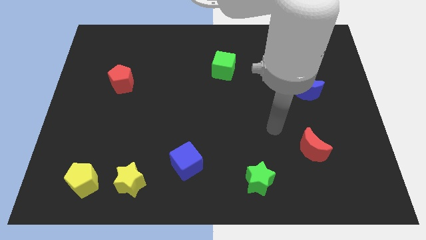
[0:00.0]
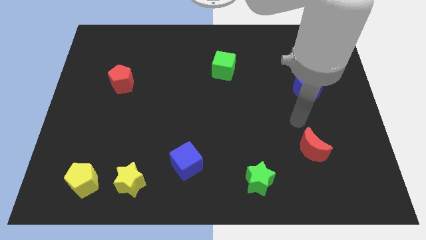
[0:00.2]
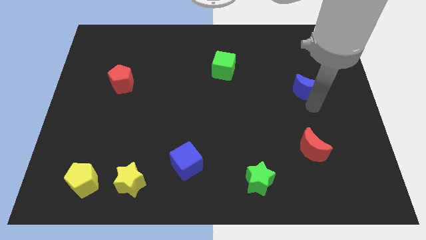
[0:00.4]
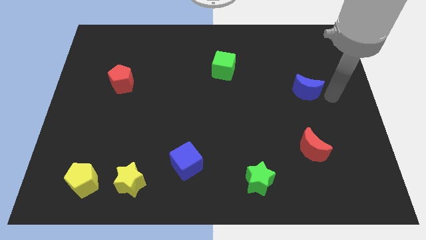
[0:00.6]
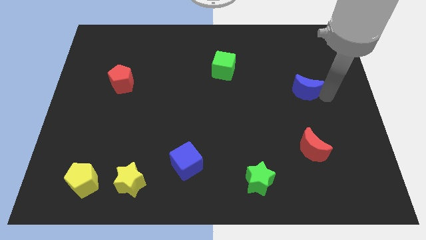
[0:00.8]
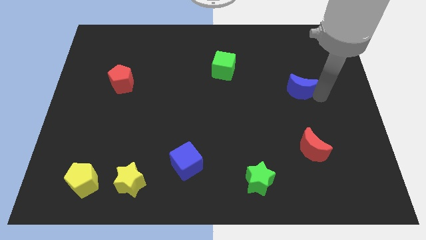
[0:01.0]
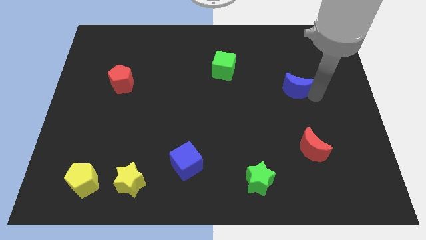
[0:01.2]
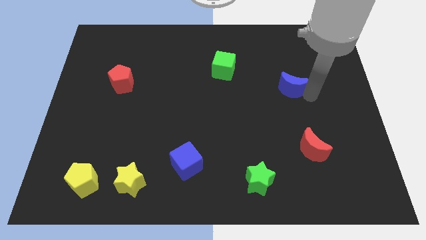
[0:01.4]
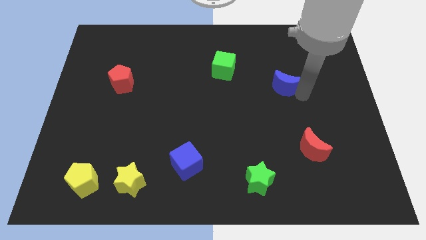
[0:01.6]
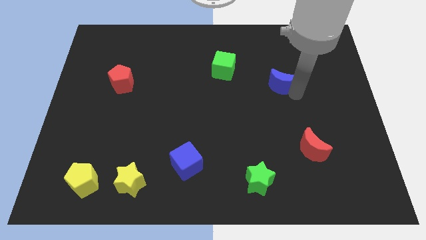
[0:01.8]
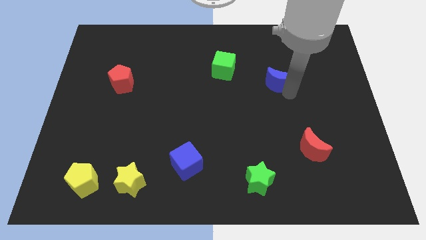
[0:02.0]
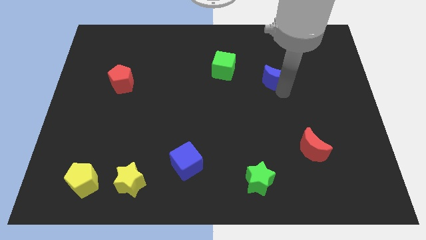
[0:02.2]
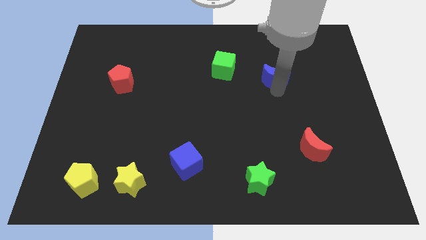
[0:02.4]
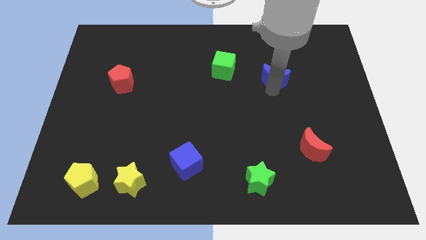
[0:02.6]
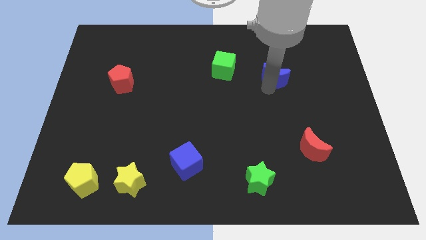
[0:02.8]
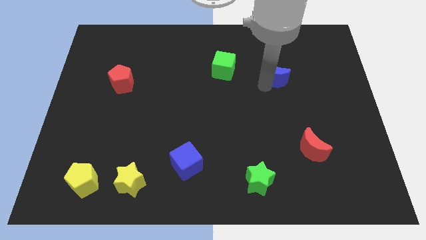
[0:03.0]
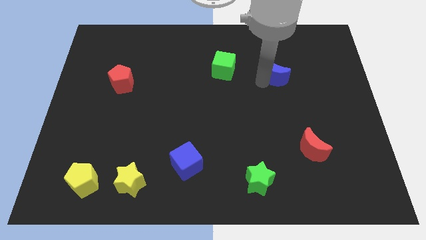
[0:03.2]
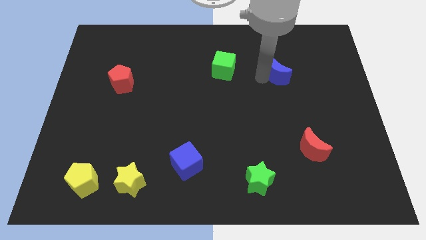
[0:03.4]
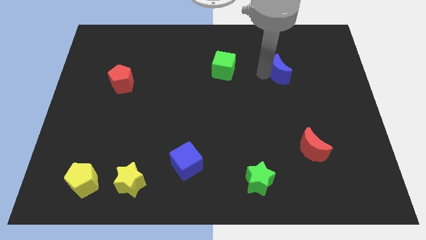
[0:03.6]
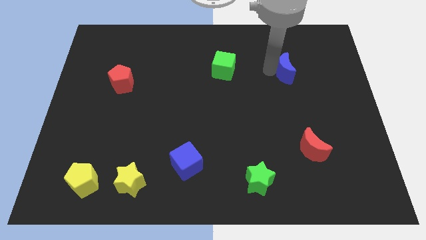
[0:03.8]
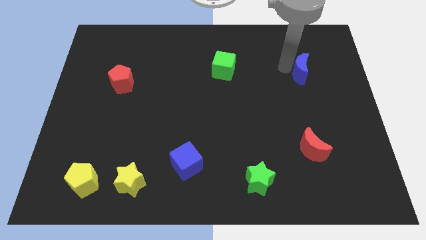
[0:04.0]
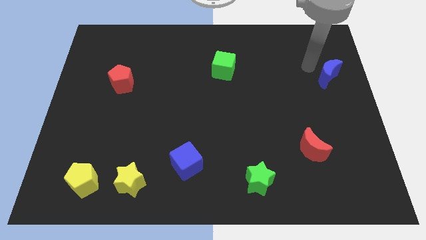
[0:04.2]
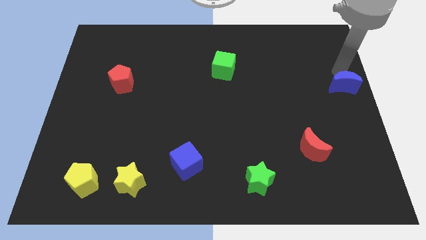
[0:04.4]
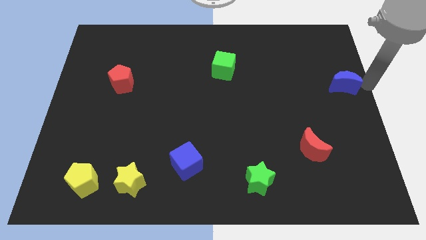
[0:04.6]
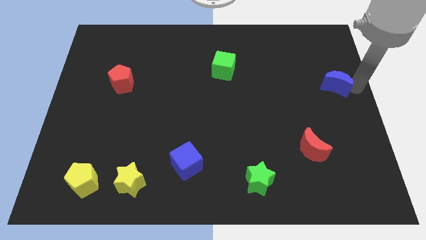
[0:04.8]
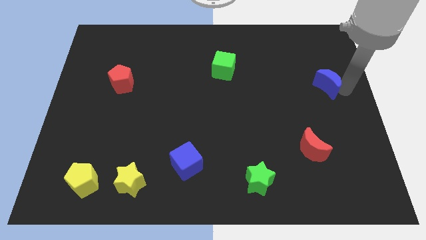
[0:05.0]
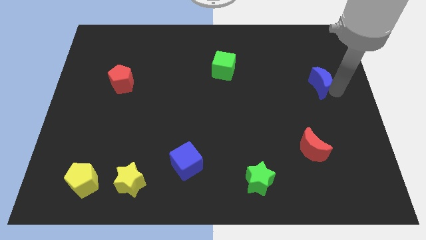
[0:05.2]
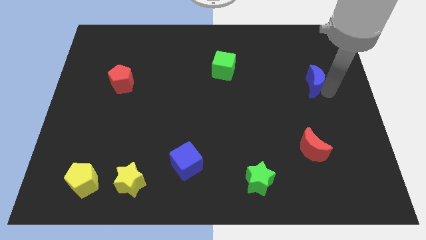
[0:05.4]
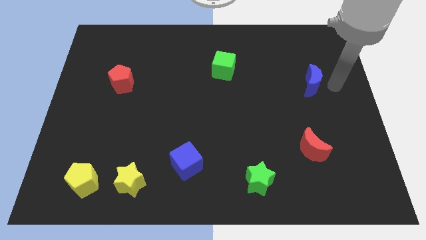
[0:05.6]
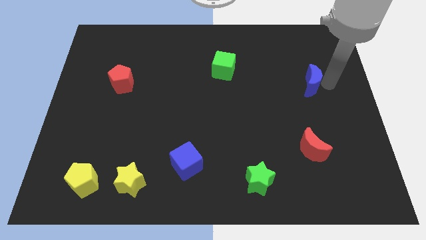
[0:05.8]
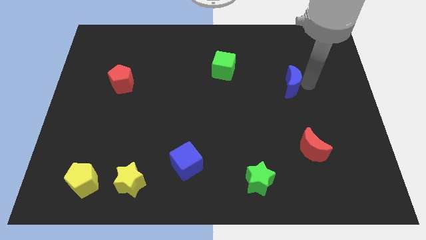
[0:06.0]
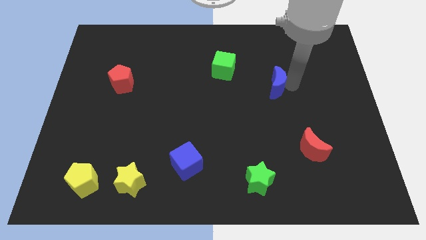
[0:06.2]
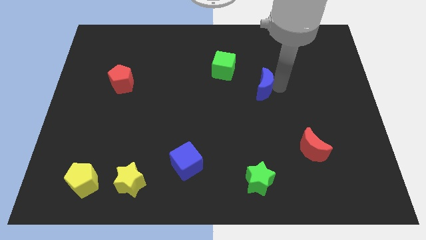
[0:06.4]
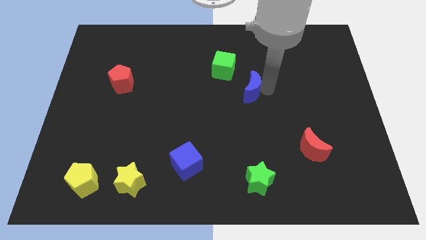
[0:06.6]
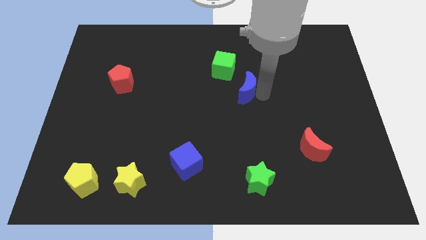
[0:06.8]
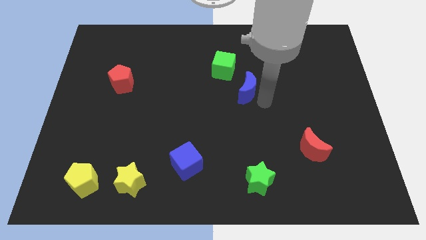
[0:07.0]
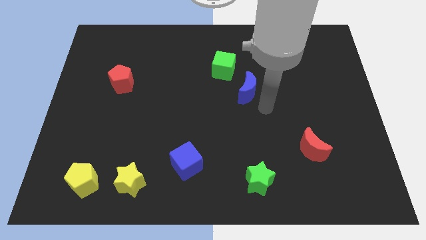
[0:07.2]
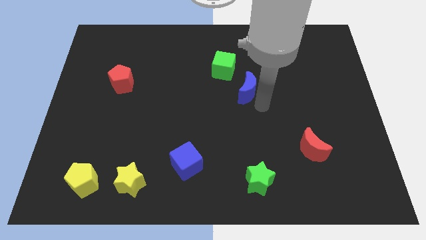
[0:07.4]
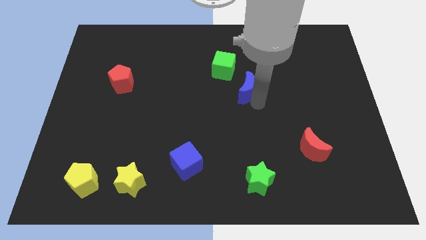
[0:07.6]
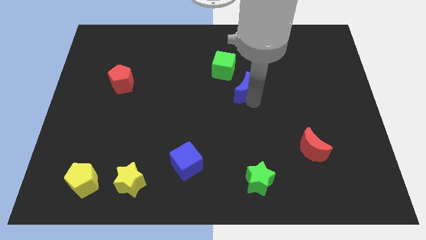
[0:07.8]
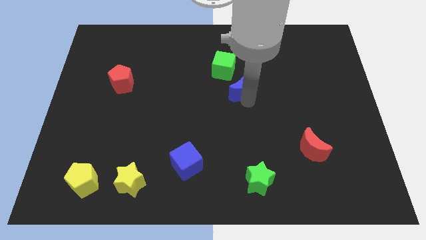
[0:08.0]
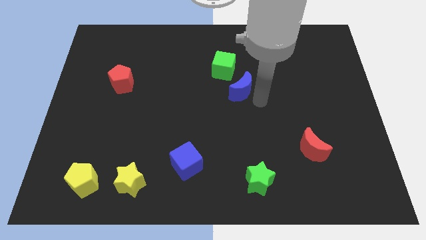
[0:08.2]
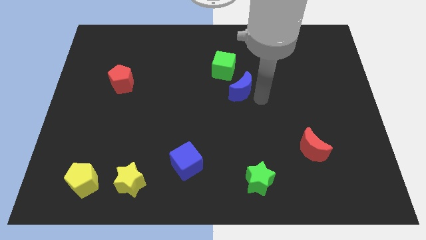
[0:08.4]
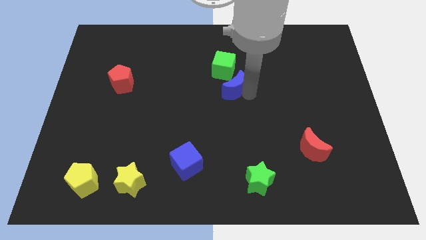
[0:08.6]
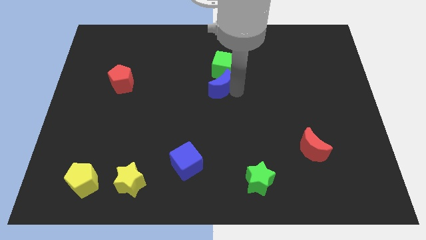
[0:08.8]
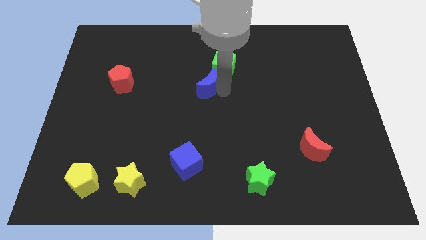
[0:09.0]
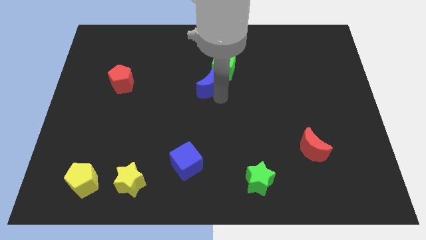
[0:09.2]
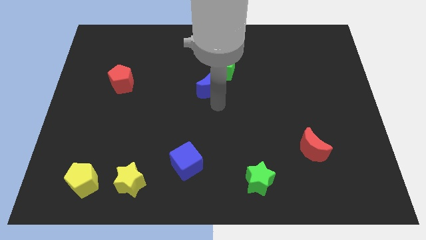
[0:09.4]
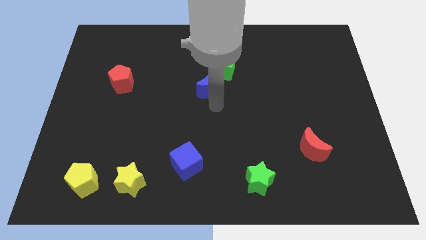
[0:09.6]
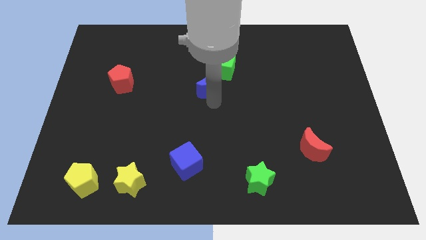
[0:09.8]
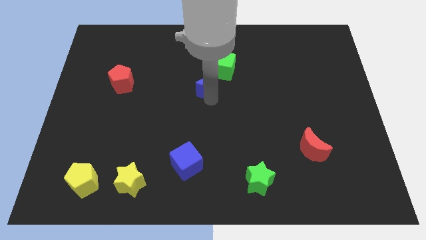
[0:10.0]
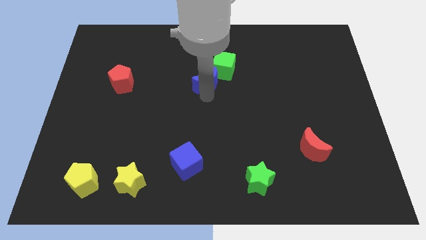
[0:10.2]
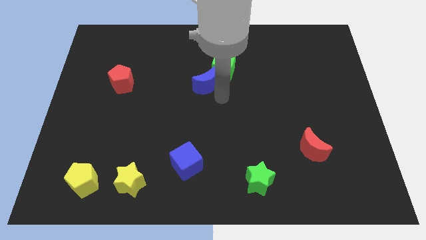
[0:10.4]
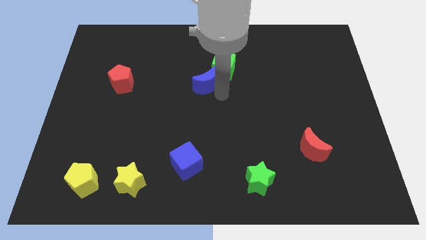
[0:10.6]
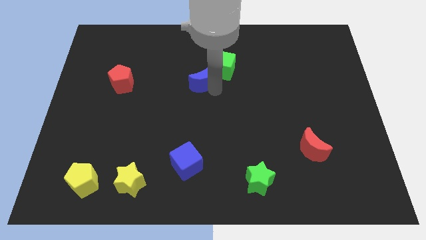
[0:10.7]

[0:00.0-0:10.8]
put the blue moon just left of the green cube

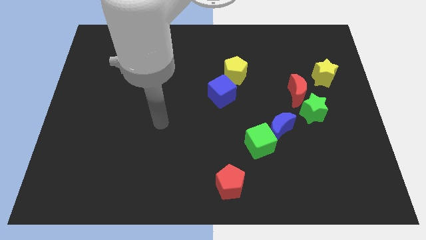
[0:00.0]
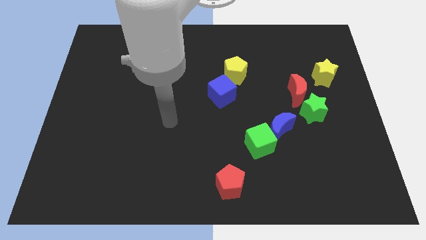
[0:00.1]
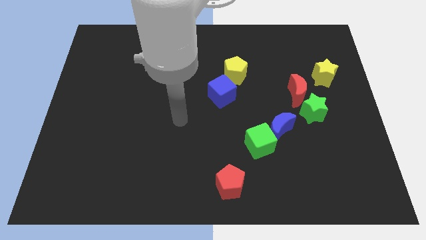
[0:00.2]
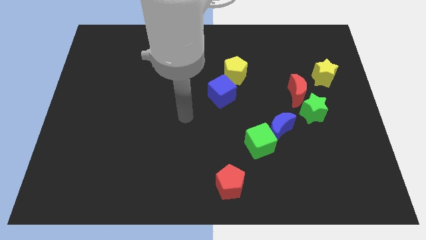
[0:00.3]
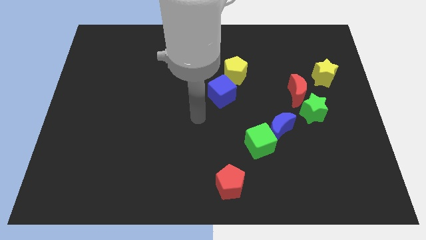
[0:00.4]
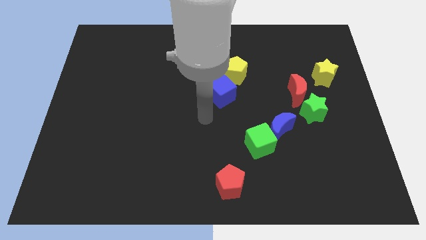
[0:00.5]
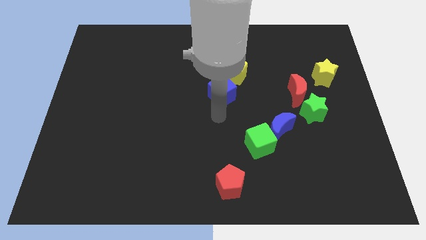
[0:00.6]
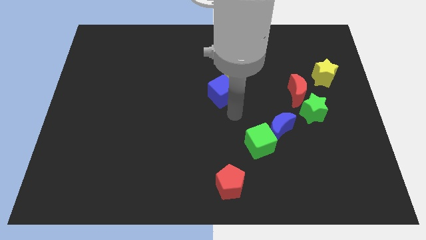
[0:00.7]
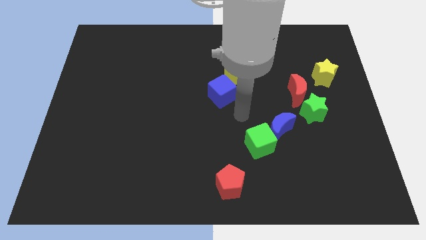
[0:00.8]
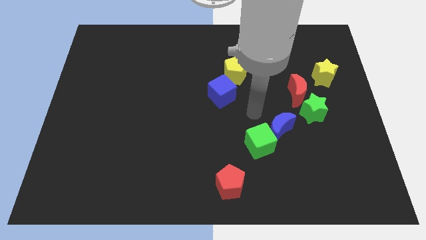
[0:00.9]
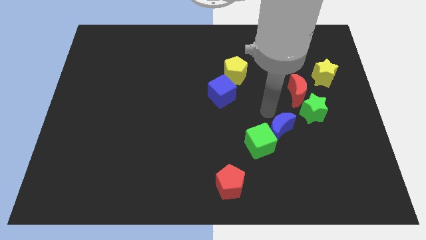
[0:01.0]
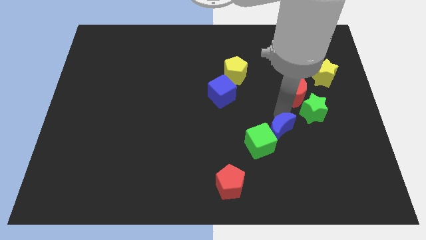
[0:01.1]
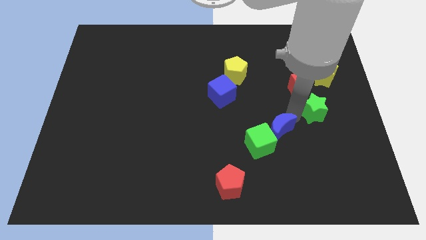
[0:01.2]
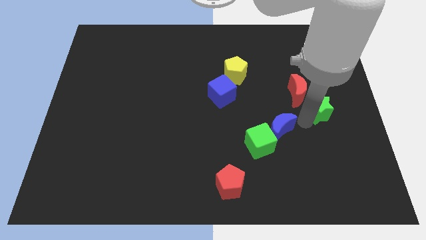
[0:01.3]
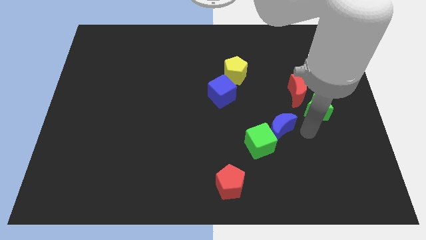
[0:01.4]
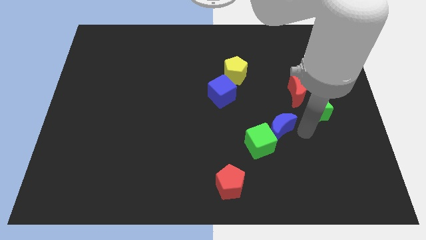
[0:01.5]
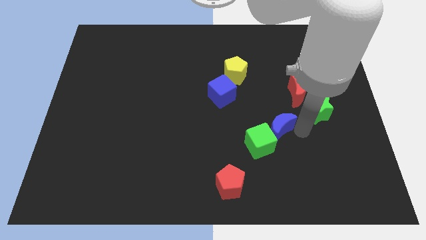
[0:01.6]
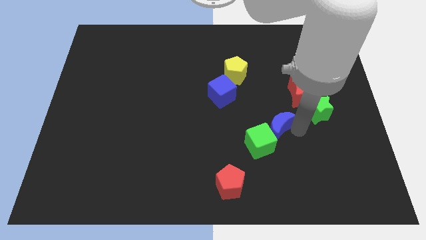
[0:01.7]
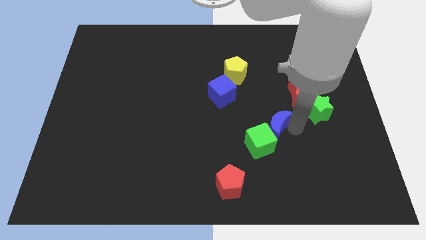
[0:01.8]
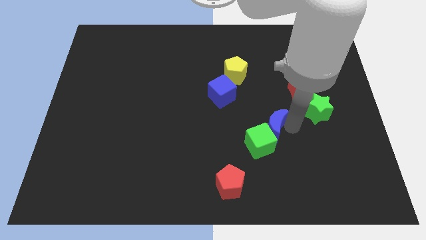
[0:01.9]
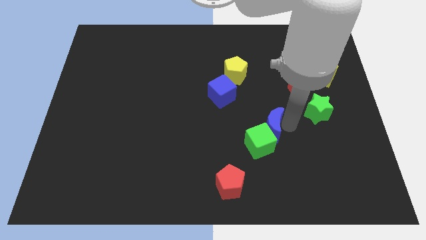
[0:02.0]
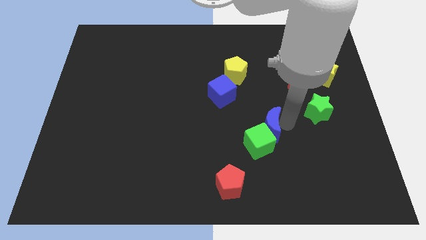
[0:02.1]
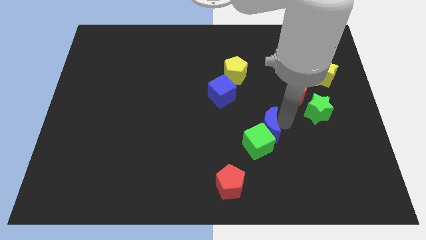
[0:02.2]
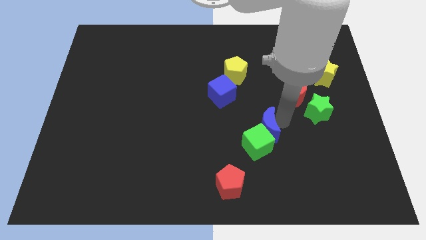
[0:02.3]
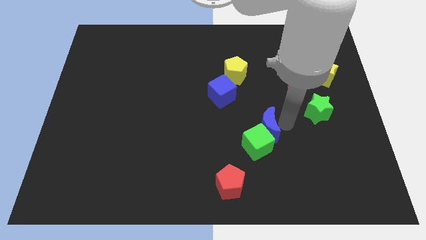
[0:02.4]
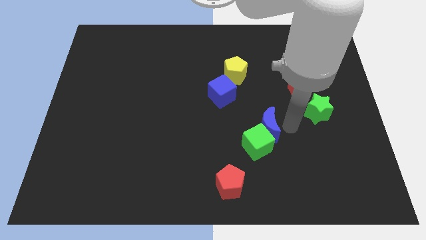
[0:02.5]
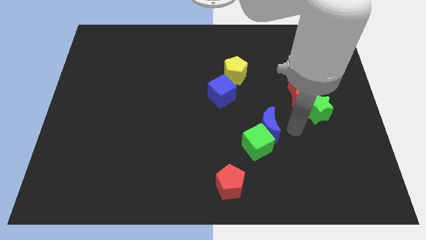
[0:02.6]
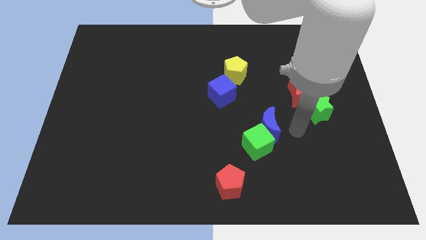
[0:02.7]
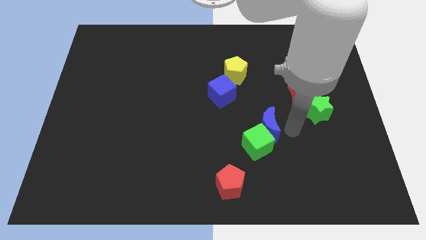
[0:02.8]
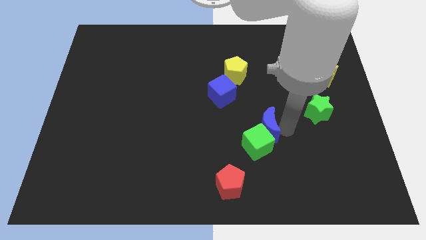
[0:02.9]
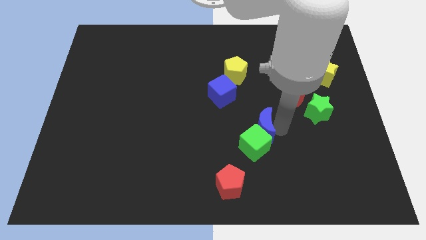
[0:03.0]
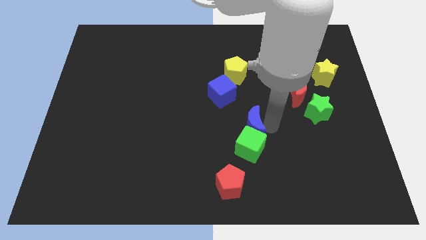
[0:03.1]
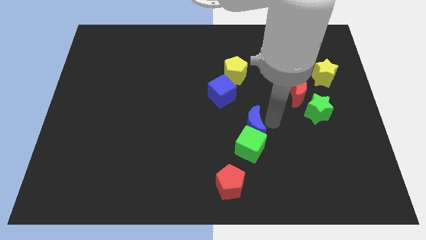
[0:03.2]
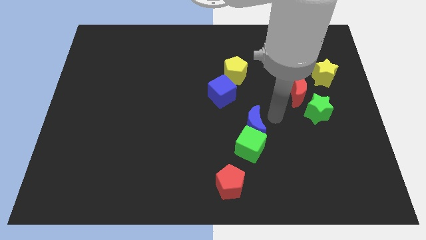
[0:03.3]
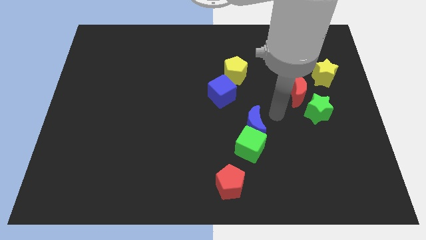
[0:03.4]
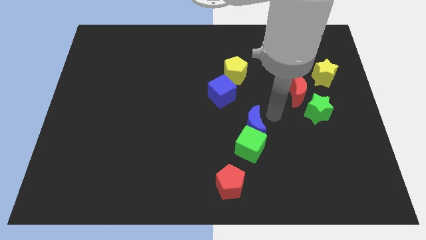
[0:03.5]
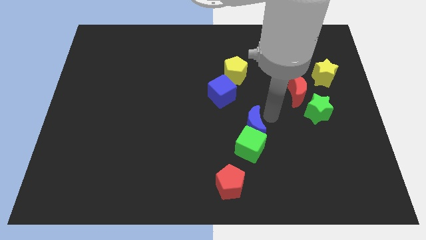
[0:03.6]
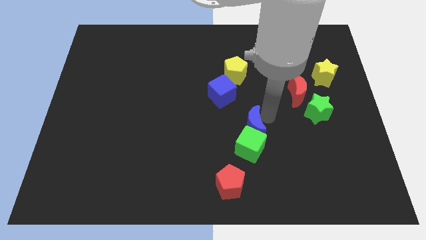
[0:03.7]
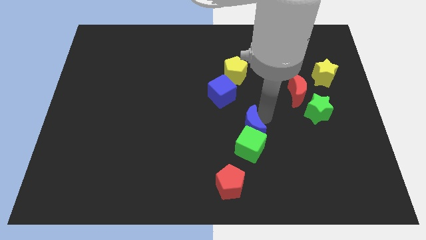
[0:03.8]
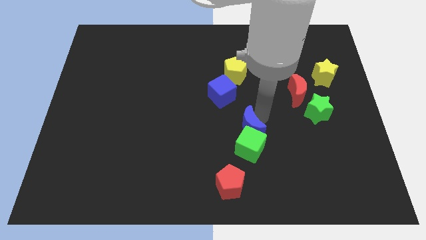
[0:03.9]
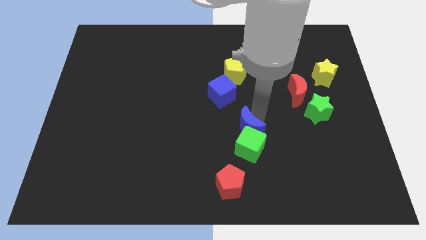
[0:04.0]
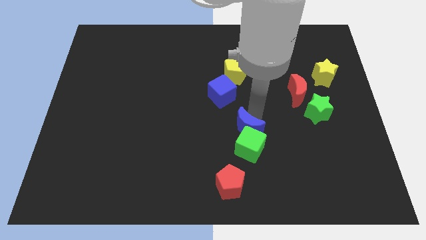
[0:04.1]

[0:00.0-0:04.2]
move the blue moon above the red pentagon
